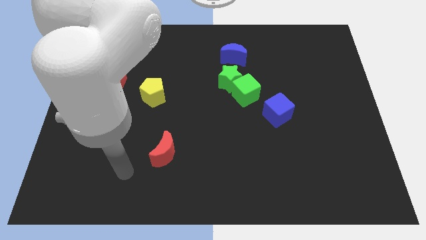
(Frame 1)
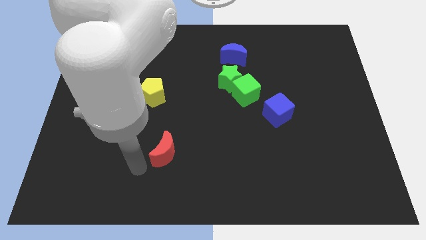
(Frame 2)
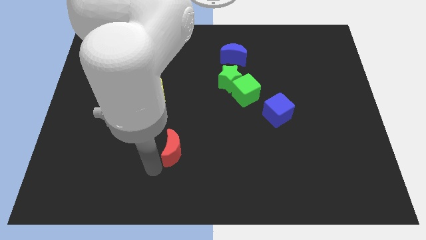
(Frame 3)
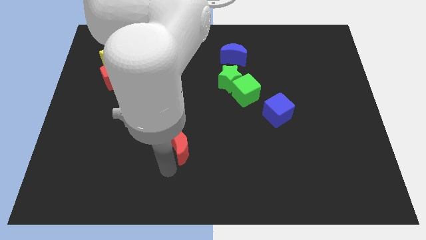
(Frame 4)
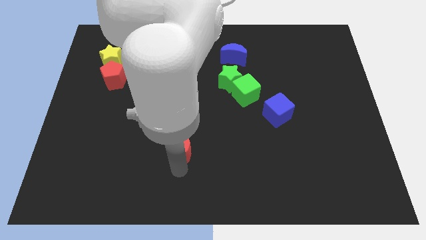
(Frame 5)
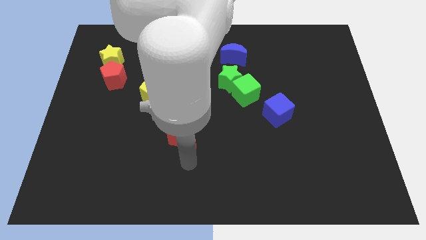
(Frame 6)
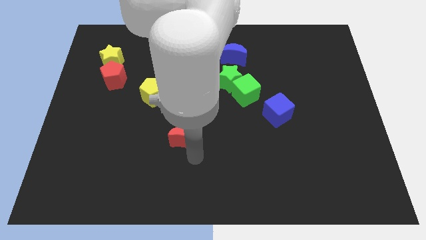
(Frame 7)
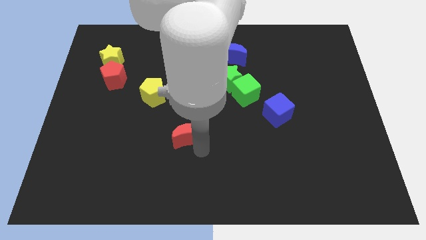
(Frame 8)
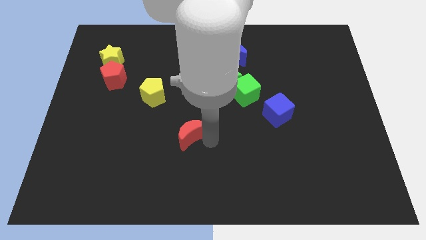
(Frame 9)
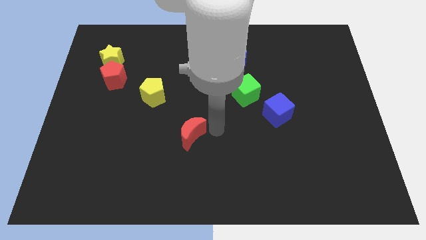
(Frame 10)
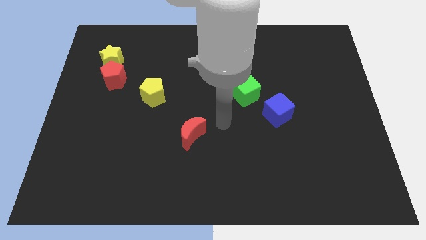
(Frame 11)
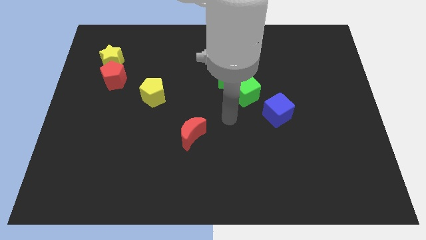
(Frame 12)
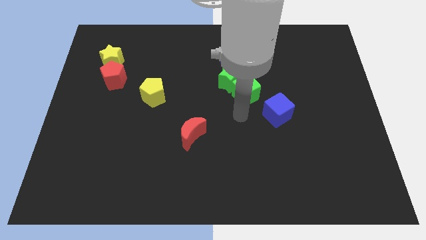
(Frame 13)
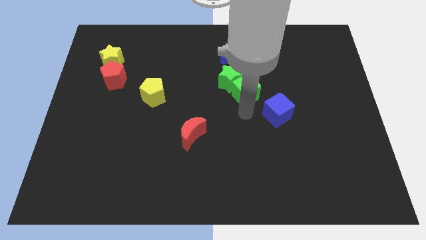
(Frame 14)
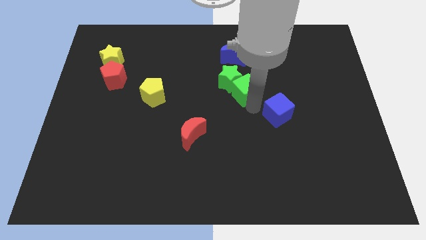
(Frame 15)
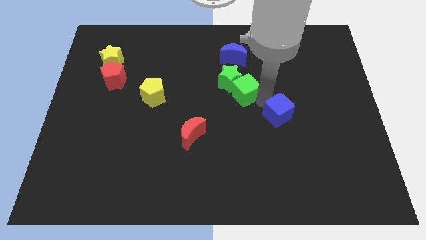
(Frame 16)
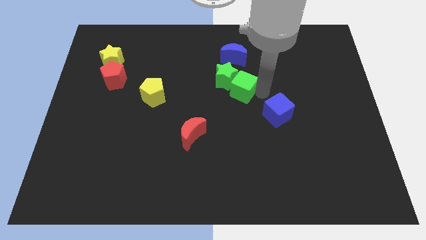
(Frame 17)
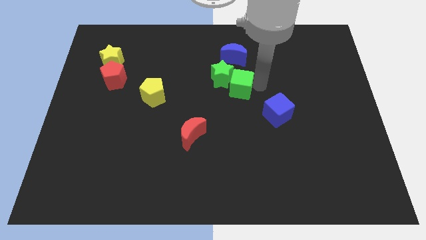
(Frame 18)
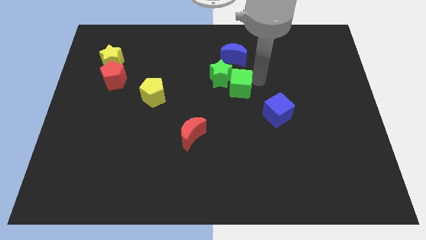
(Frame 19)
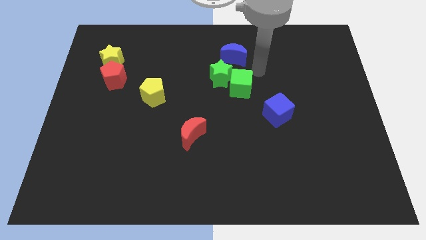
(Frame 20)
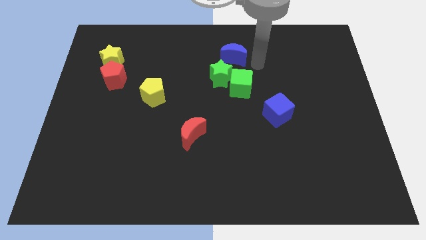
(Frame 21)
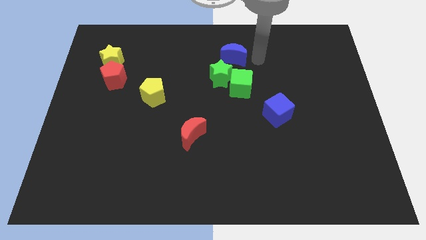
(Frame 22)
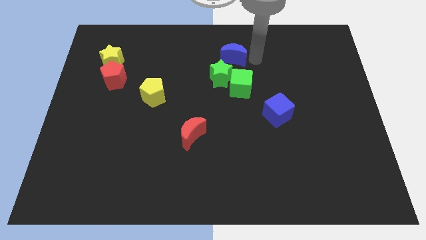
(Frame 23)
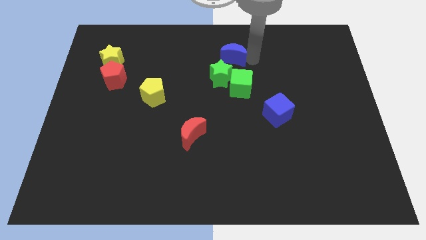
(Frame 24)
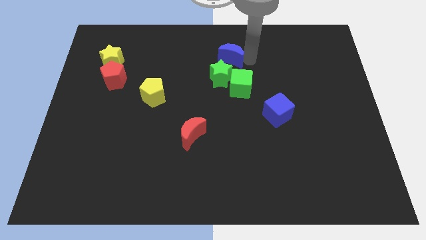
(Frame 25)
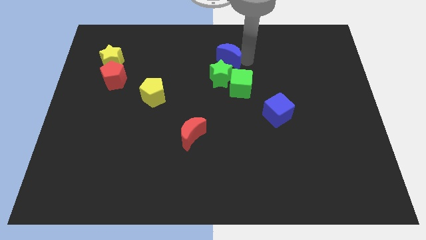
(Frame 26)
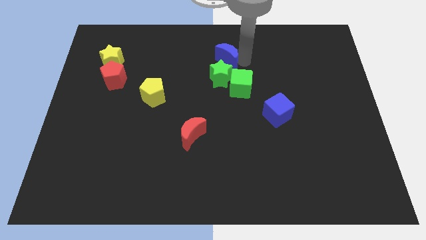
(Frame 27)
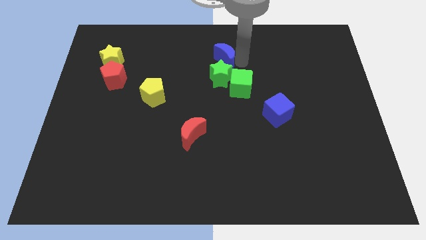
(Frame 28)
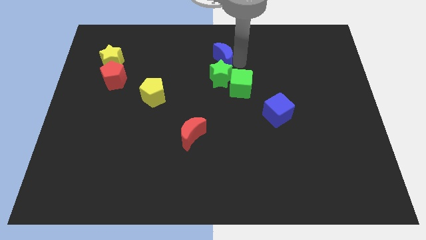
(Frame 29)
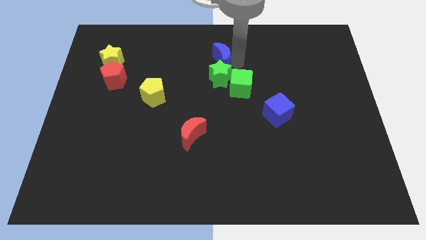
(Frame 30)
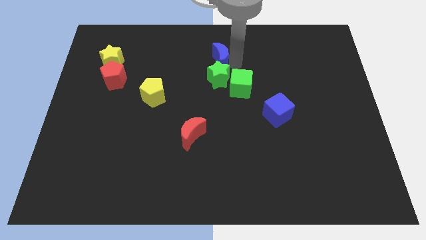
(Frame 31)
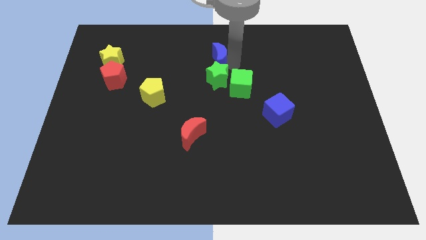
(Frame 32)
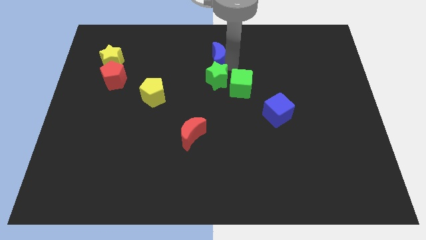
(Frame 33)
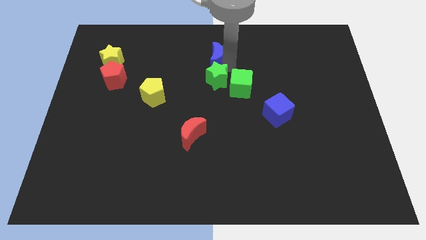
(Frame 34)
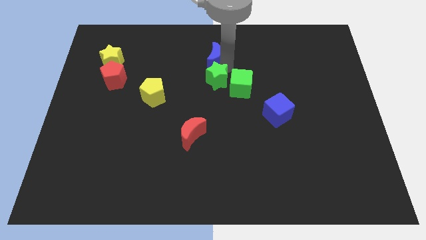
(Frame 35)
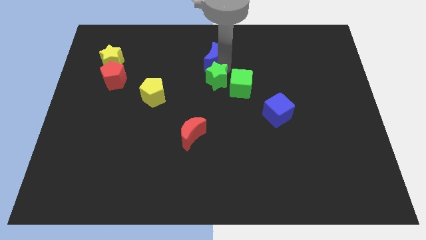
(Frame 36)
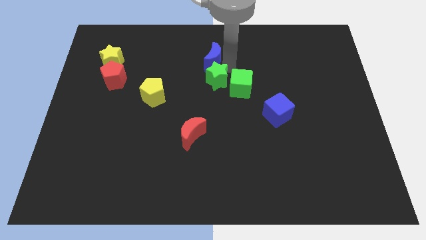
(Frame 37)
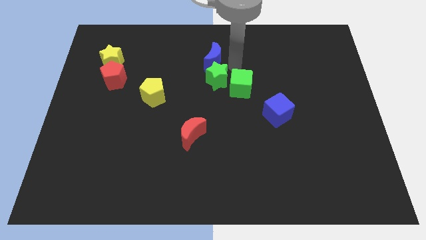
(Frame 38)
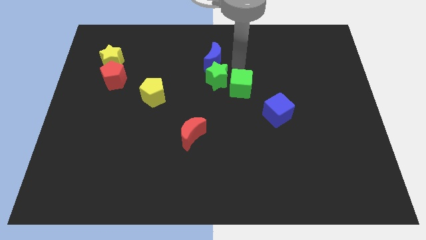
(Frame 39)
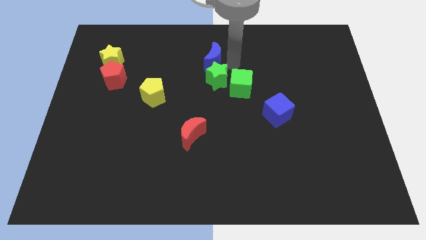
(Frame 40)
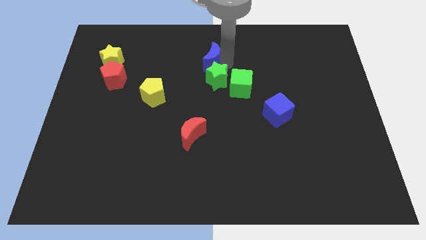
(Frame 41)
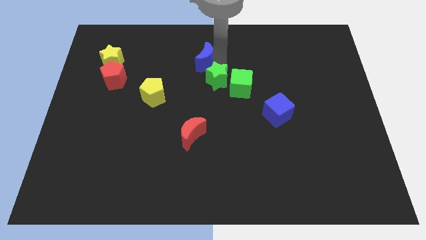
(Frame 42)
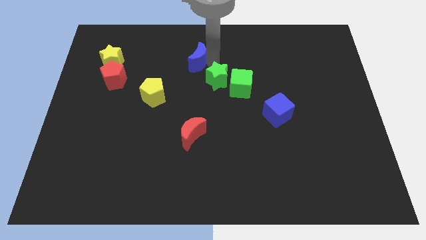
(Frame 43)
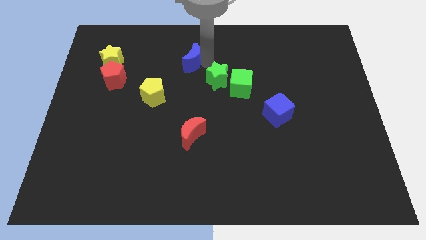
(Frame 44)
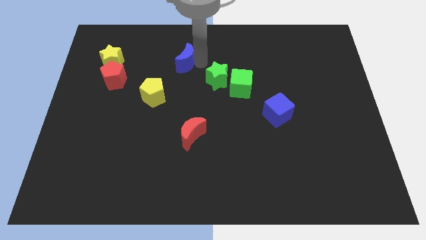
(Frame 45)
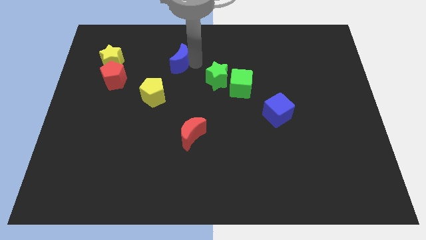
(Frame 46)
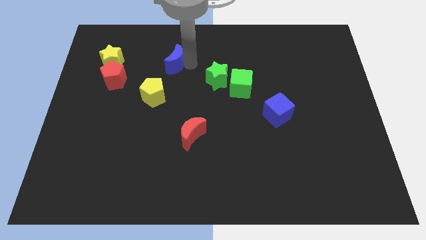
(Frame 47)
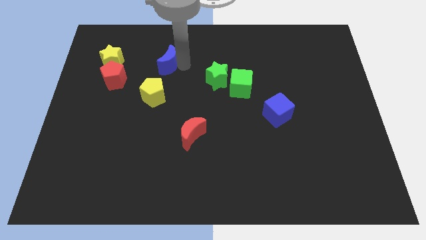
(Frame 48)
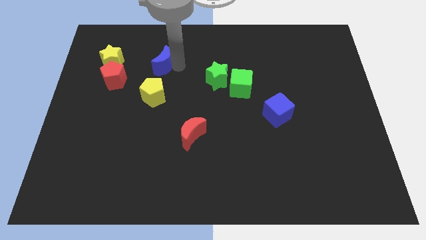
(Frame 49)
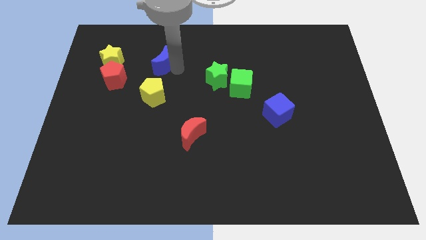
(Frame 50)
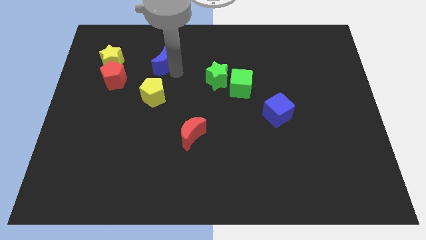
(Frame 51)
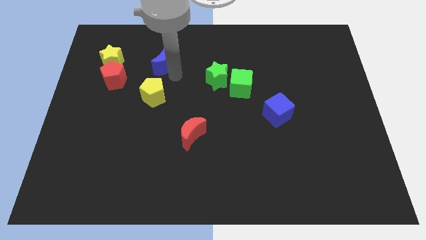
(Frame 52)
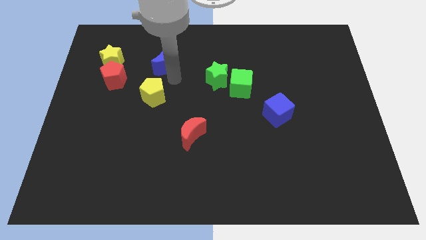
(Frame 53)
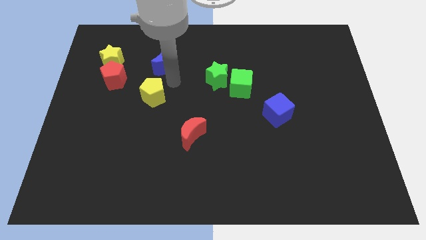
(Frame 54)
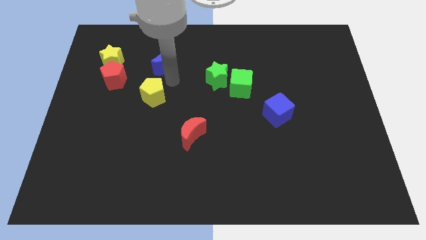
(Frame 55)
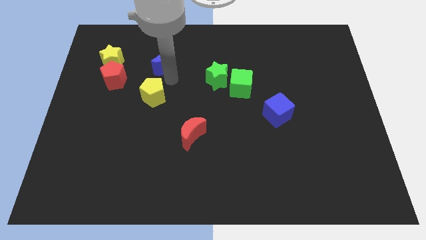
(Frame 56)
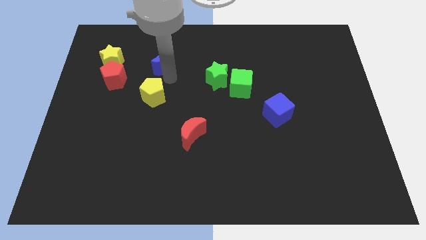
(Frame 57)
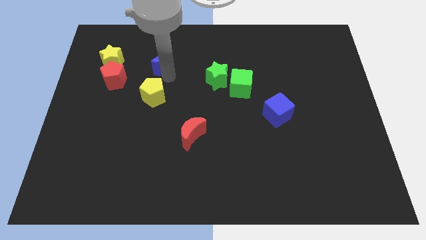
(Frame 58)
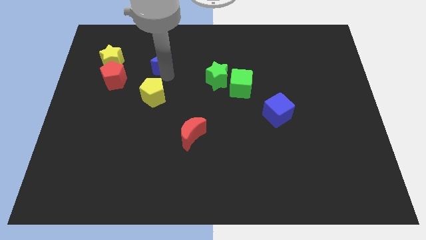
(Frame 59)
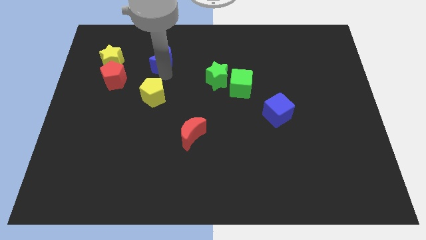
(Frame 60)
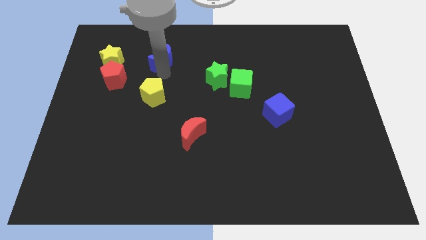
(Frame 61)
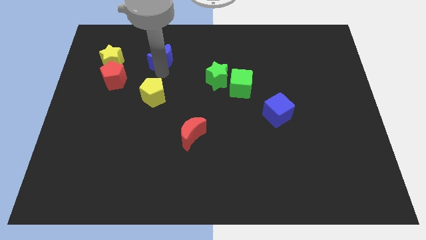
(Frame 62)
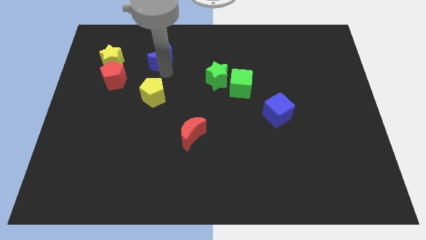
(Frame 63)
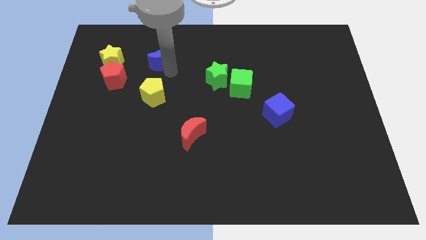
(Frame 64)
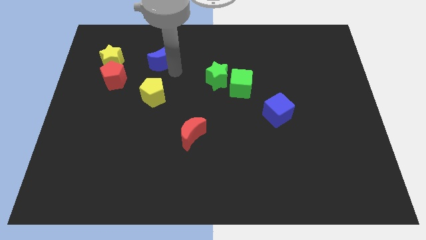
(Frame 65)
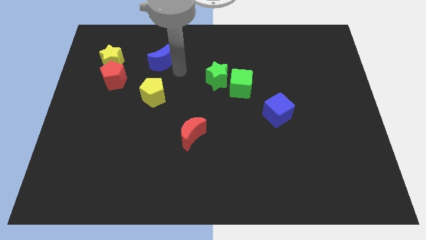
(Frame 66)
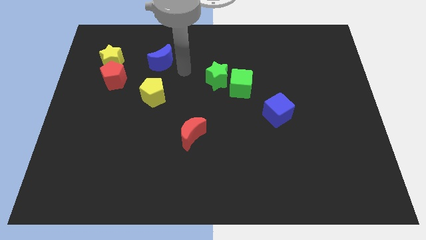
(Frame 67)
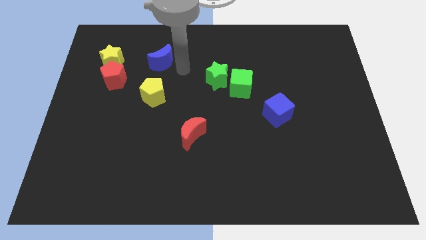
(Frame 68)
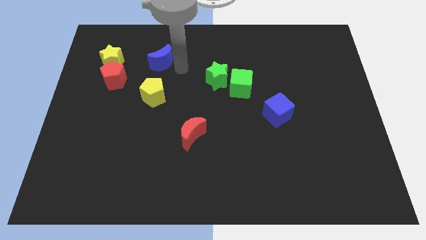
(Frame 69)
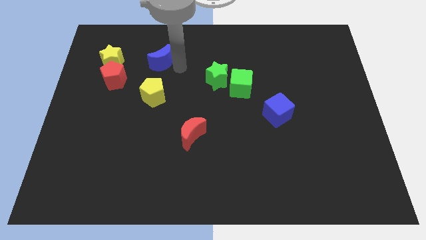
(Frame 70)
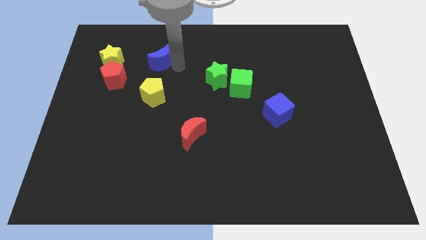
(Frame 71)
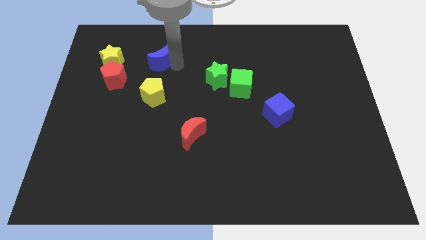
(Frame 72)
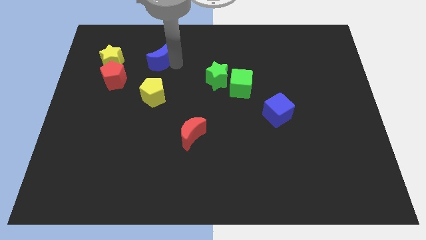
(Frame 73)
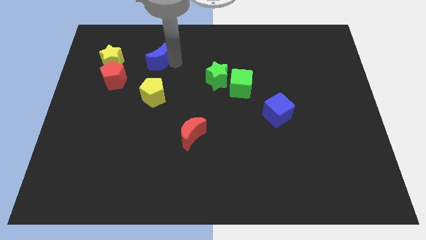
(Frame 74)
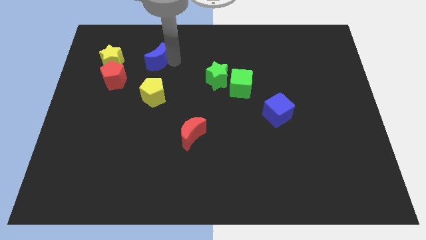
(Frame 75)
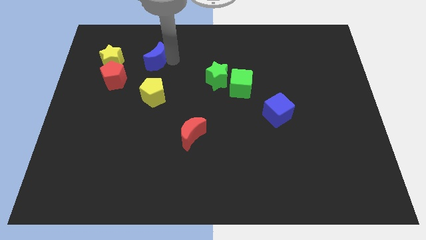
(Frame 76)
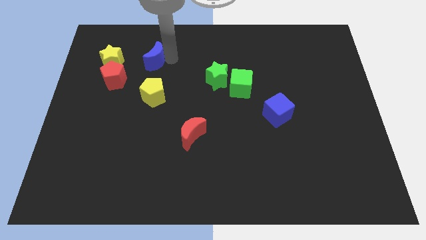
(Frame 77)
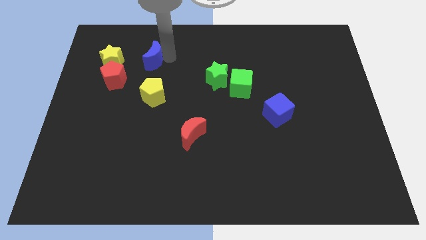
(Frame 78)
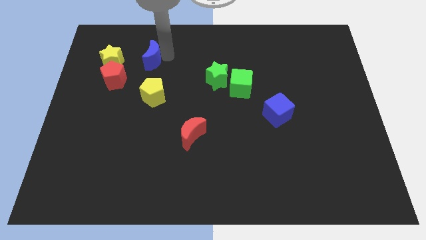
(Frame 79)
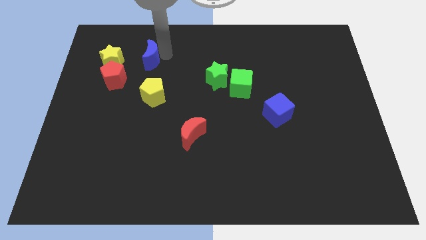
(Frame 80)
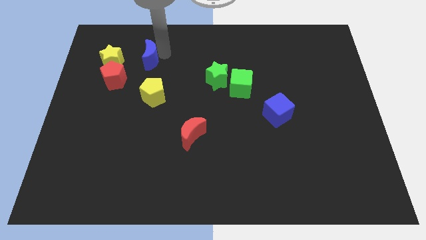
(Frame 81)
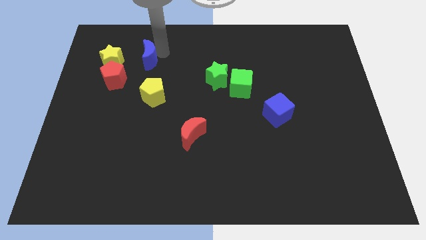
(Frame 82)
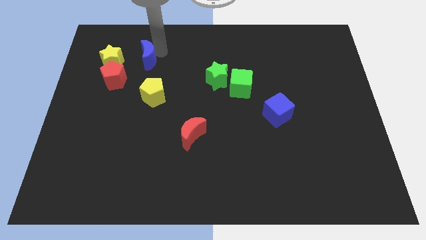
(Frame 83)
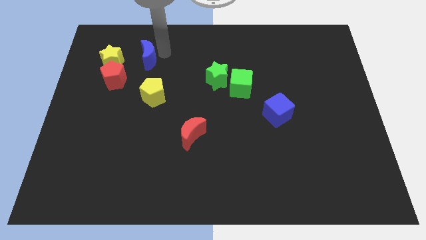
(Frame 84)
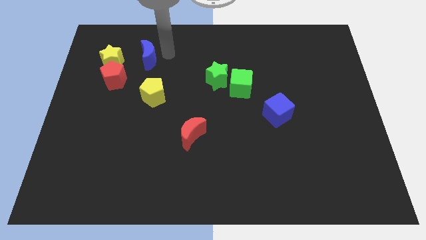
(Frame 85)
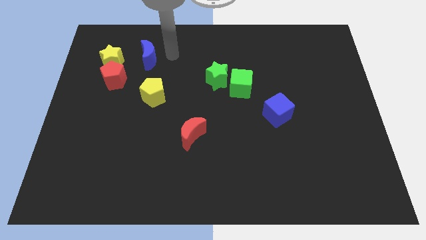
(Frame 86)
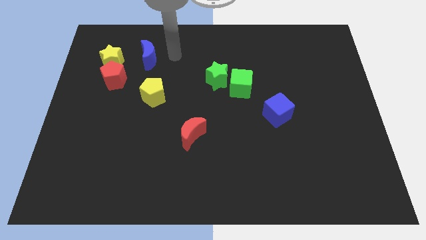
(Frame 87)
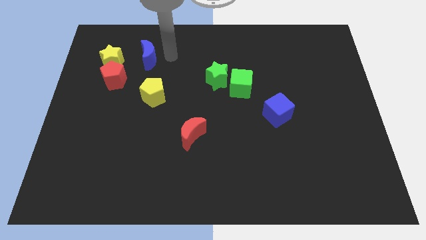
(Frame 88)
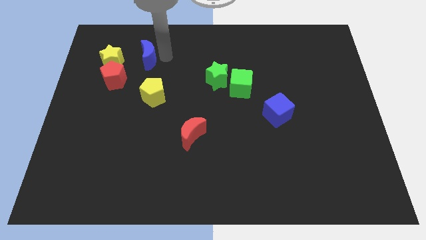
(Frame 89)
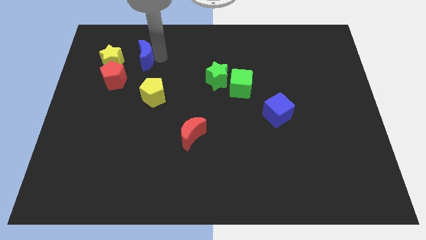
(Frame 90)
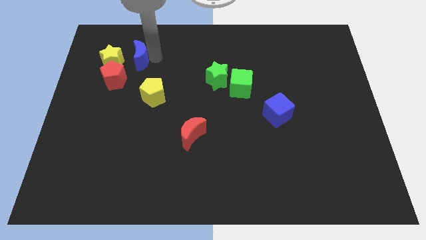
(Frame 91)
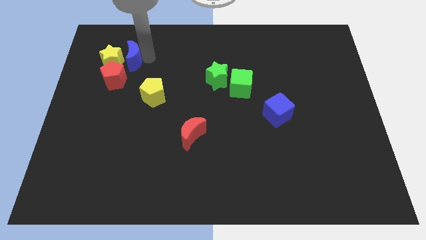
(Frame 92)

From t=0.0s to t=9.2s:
put the blue moon towards the yellow star
